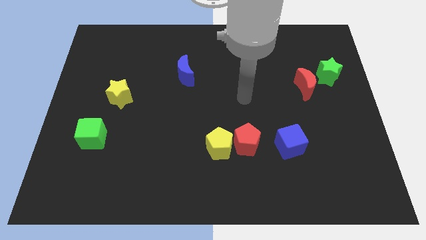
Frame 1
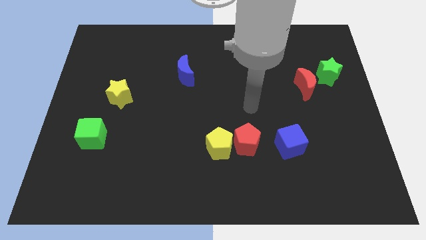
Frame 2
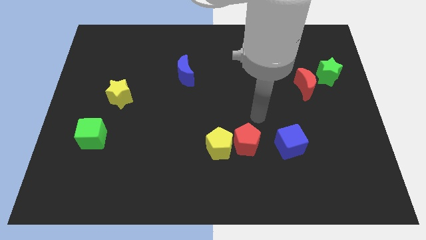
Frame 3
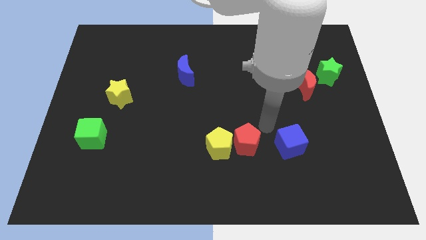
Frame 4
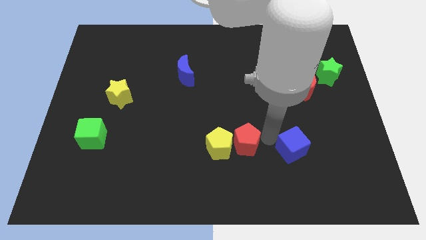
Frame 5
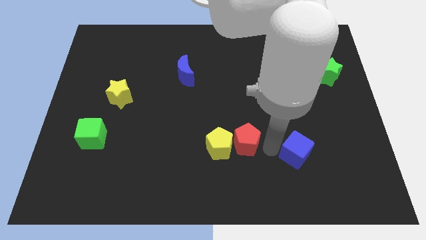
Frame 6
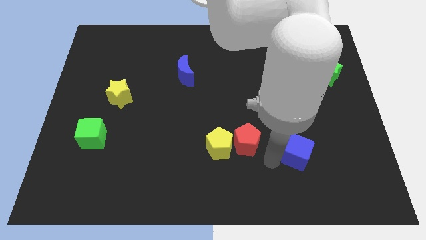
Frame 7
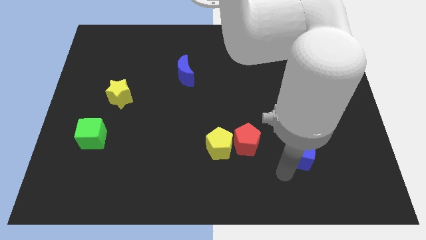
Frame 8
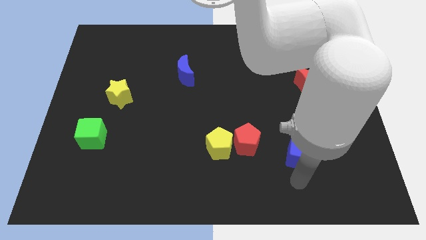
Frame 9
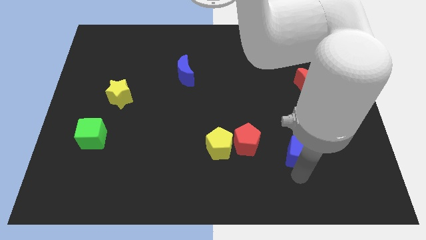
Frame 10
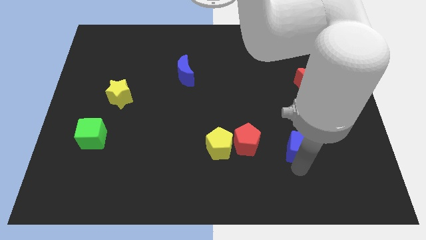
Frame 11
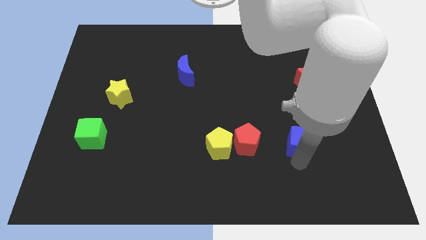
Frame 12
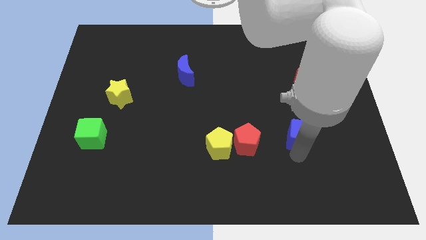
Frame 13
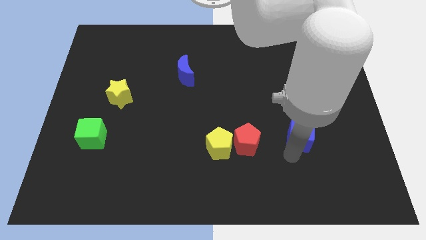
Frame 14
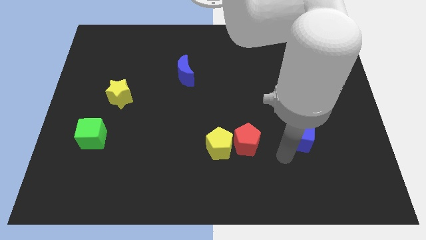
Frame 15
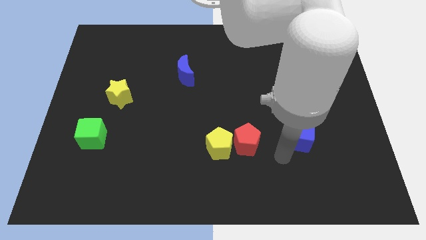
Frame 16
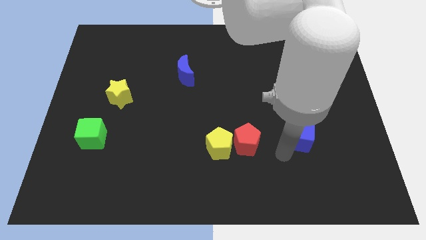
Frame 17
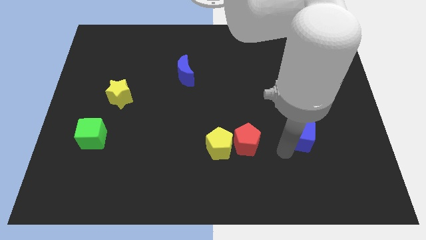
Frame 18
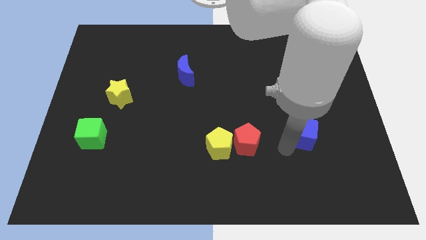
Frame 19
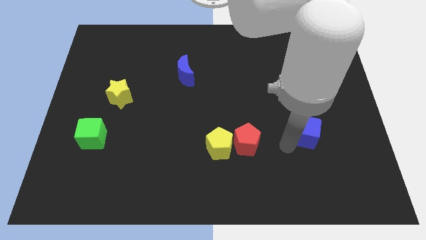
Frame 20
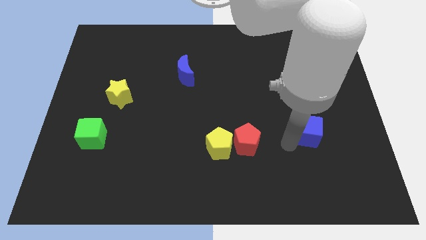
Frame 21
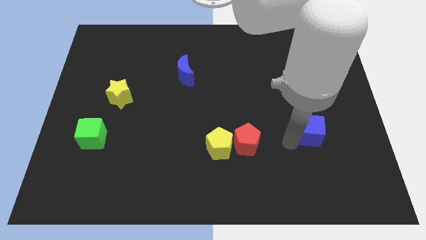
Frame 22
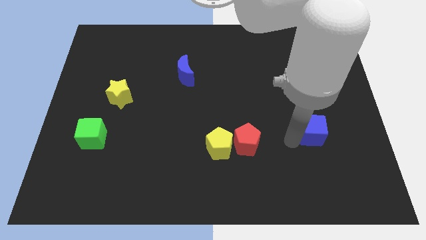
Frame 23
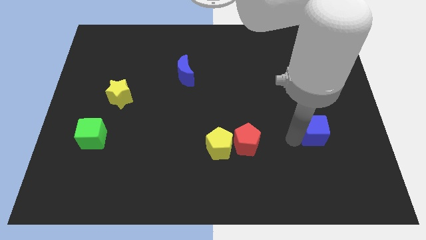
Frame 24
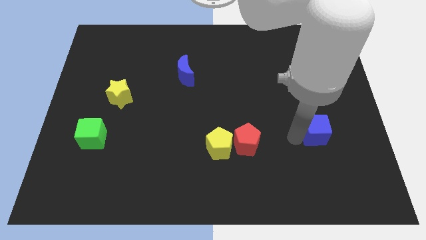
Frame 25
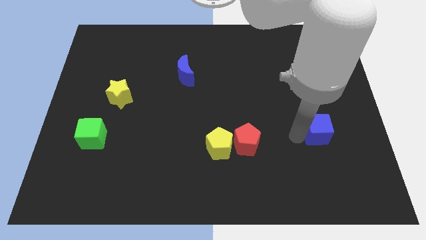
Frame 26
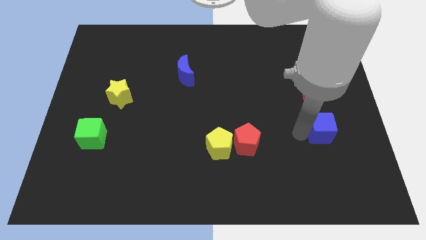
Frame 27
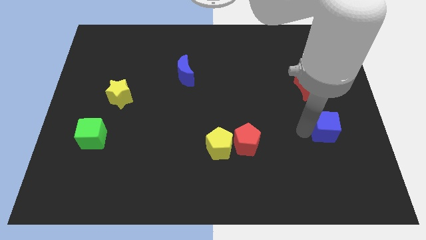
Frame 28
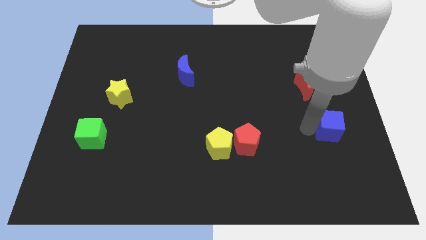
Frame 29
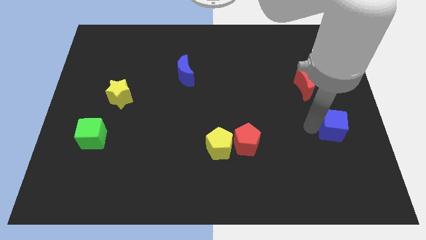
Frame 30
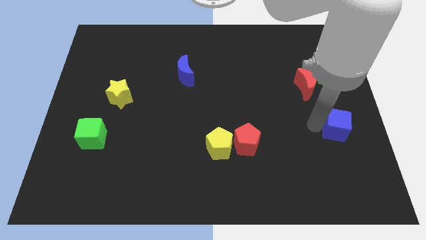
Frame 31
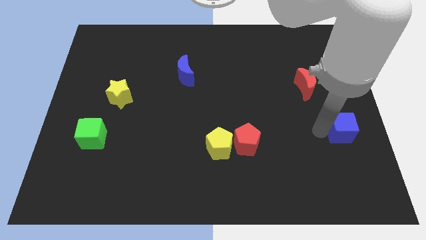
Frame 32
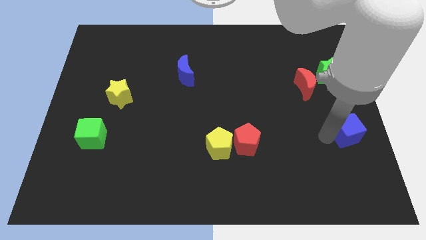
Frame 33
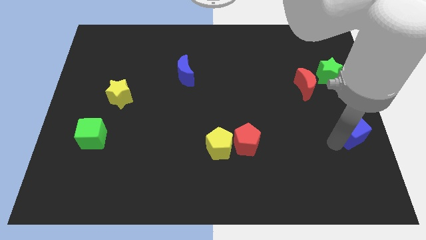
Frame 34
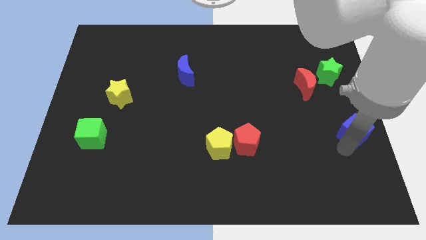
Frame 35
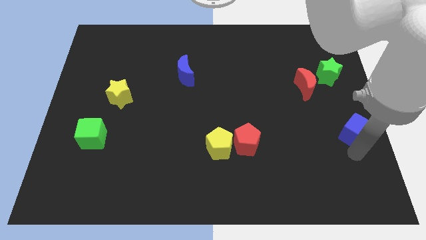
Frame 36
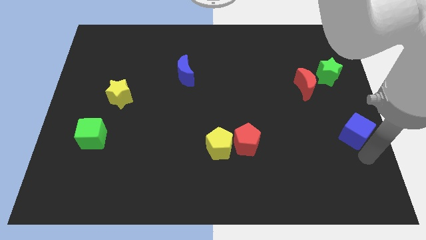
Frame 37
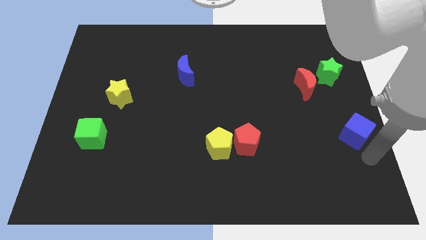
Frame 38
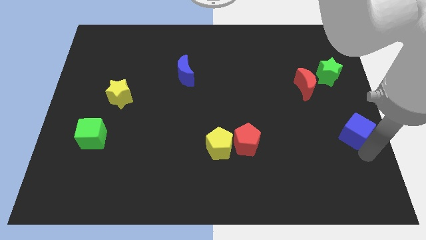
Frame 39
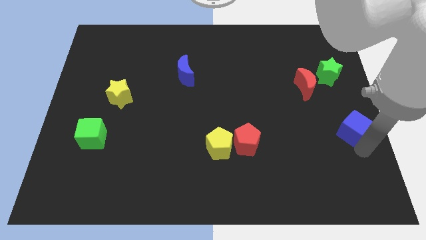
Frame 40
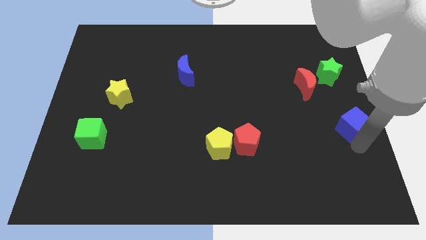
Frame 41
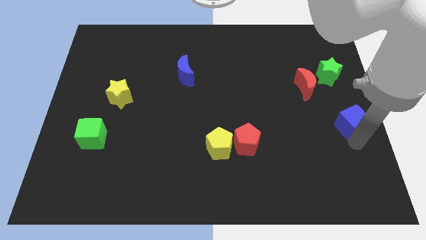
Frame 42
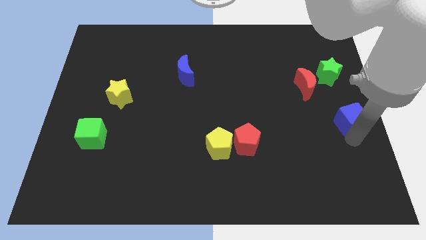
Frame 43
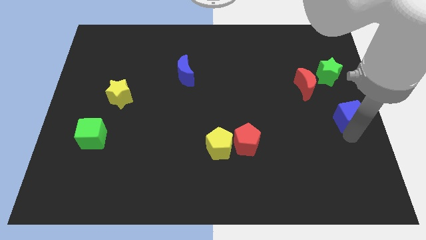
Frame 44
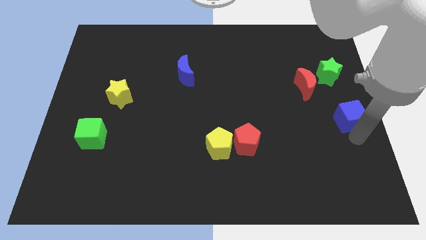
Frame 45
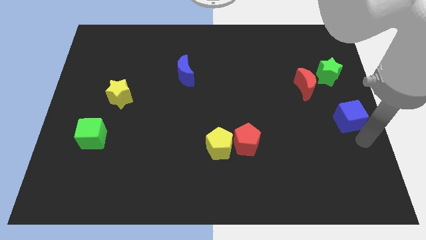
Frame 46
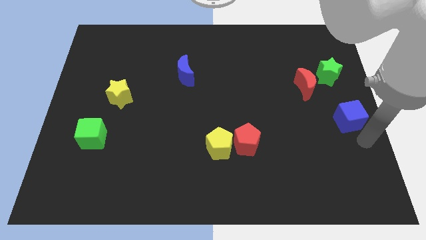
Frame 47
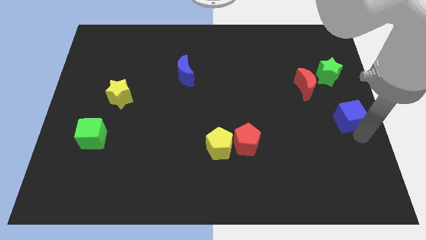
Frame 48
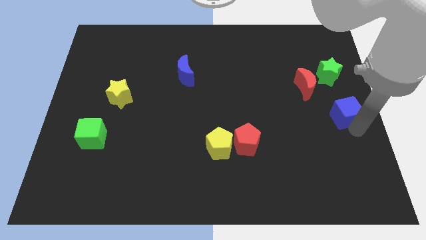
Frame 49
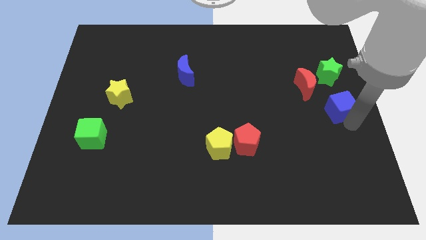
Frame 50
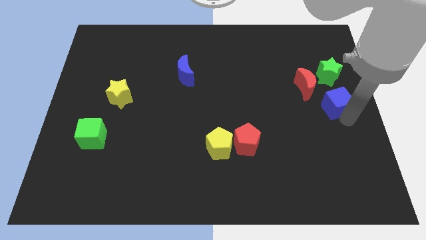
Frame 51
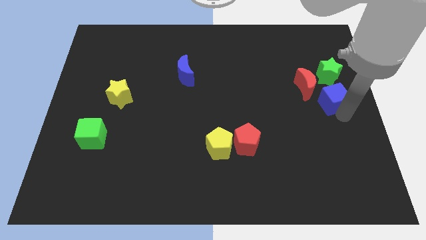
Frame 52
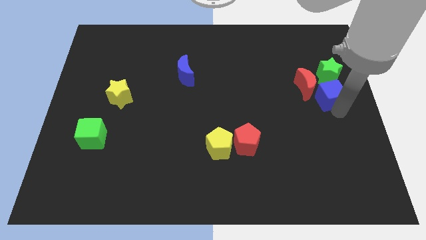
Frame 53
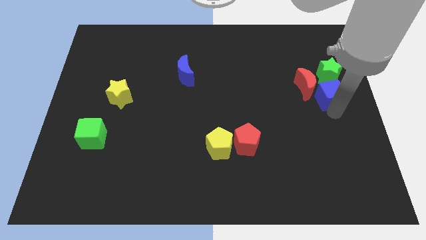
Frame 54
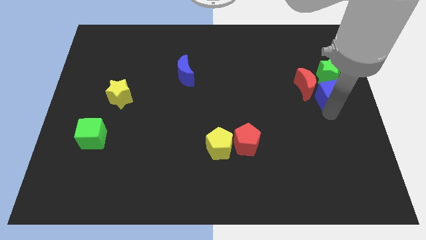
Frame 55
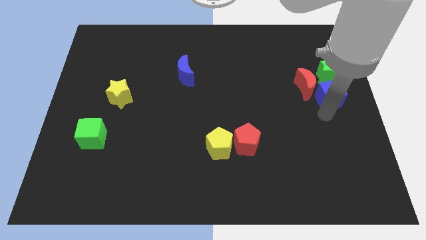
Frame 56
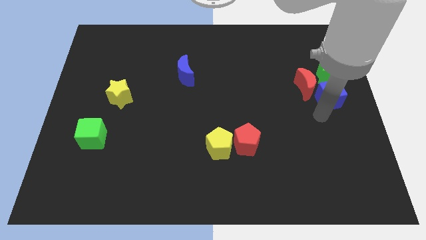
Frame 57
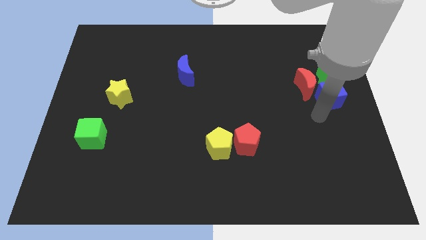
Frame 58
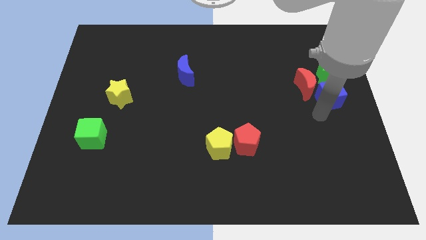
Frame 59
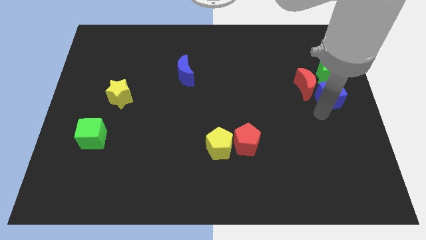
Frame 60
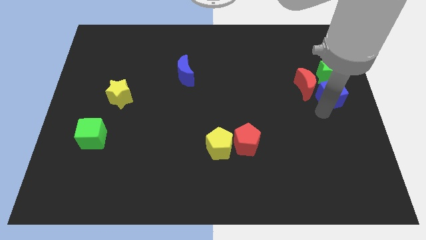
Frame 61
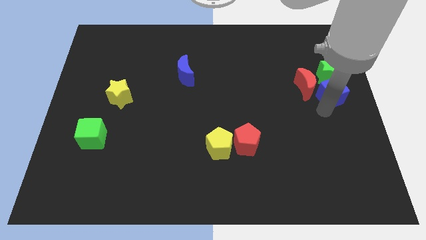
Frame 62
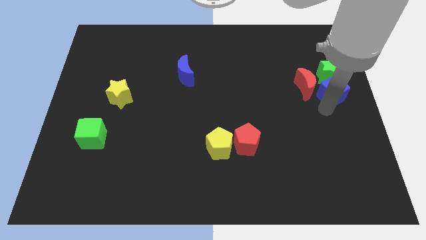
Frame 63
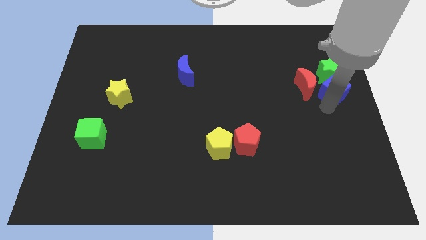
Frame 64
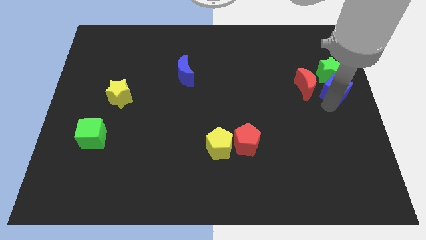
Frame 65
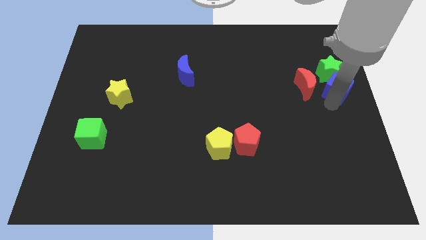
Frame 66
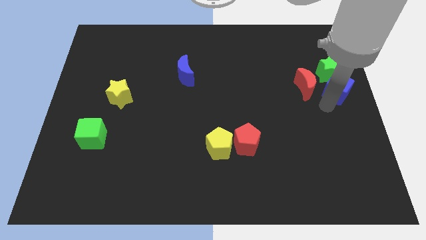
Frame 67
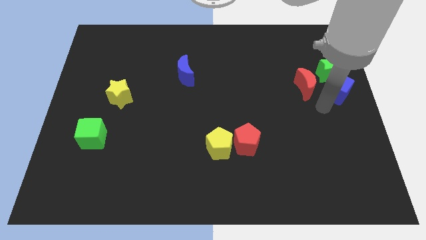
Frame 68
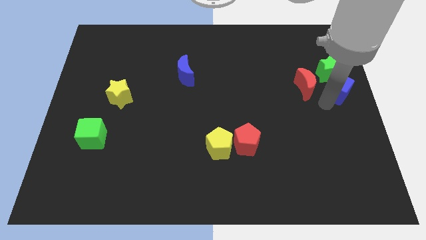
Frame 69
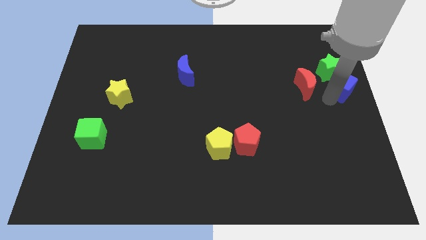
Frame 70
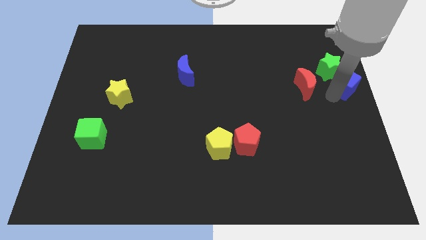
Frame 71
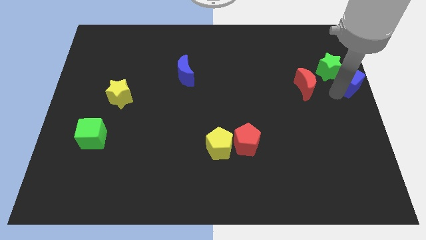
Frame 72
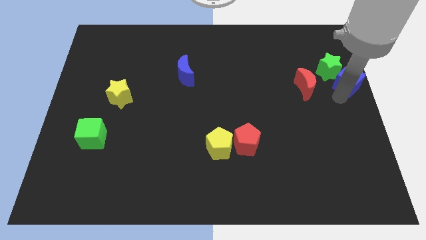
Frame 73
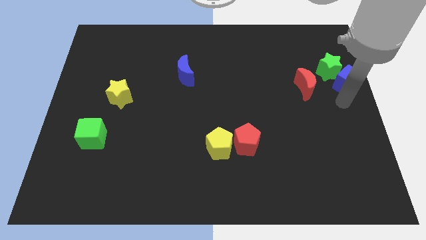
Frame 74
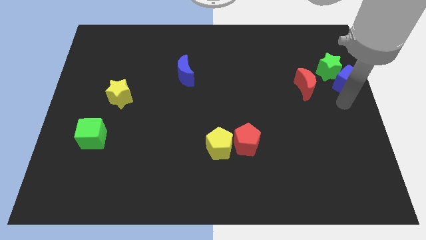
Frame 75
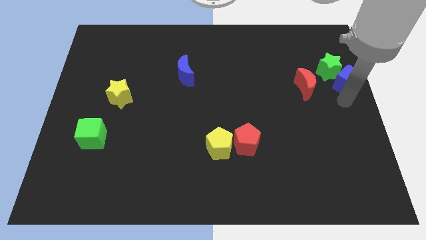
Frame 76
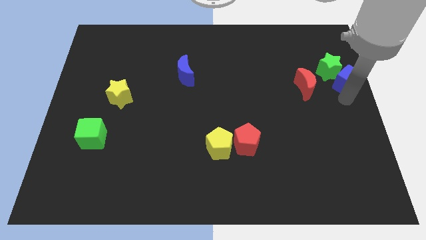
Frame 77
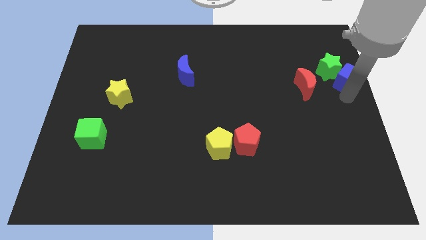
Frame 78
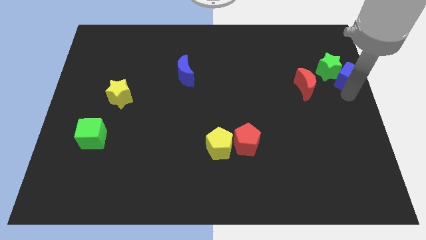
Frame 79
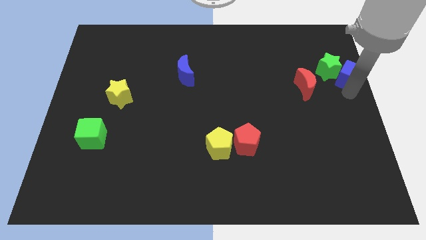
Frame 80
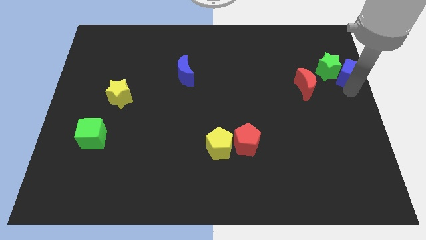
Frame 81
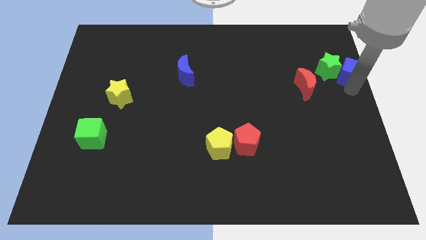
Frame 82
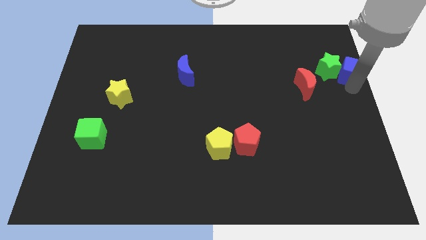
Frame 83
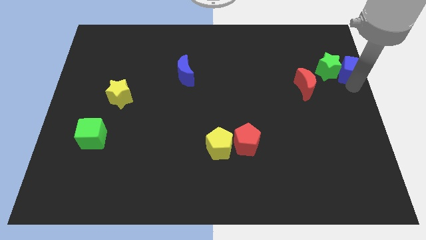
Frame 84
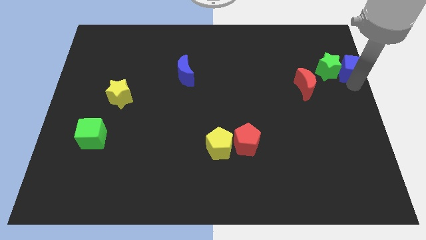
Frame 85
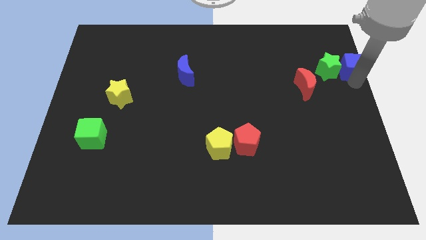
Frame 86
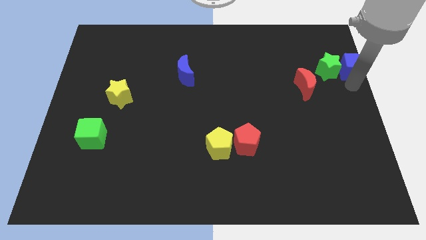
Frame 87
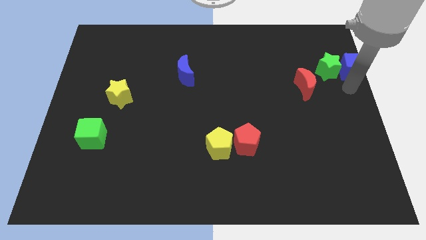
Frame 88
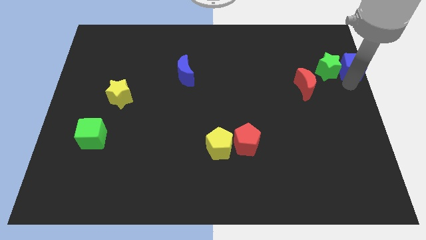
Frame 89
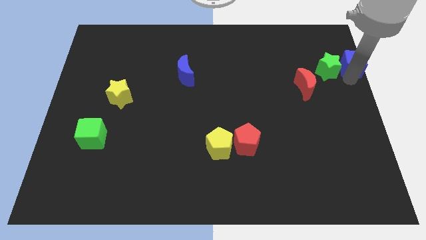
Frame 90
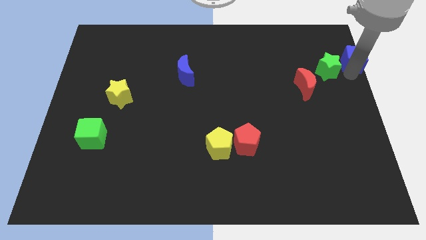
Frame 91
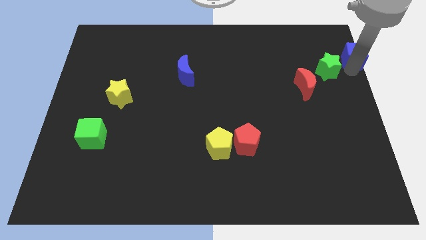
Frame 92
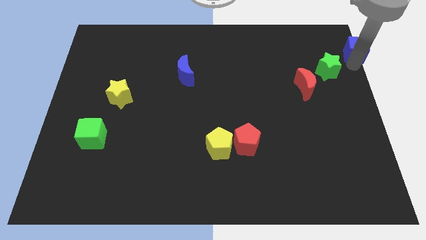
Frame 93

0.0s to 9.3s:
slide the blue cube to the top right of the board
